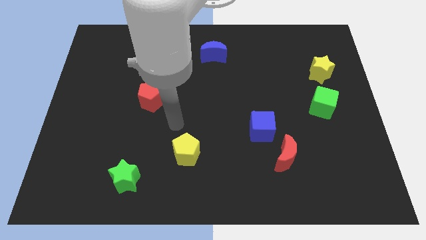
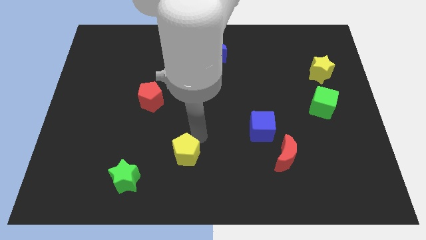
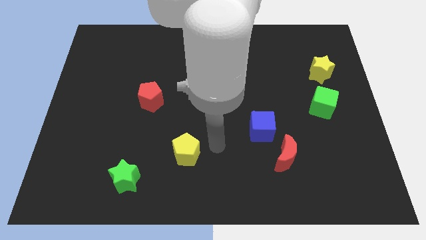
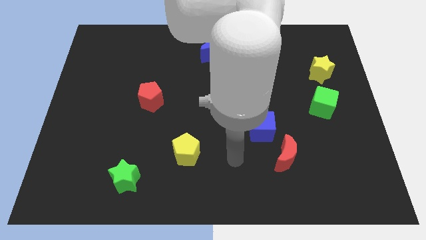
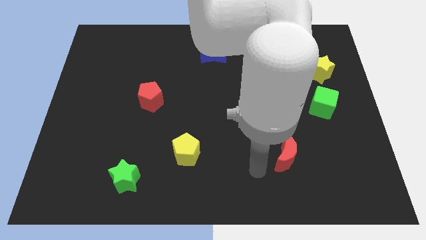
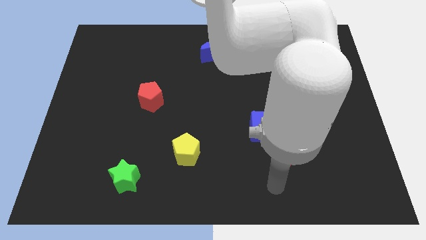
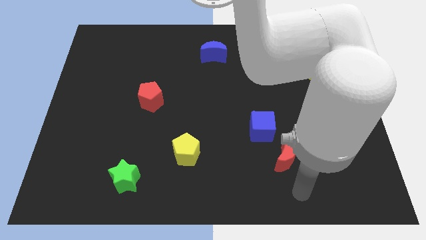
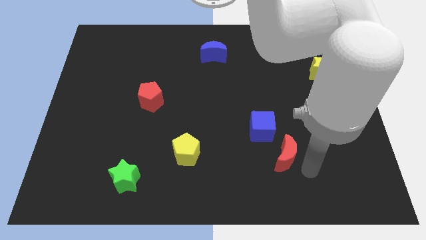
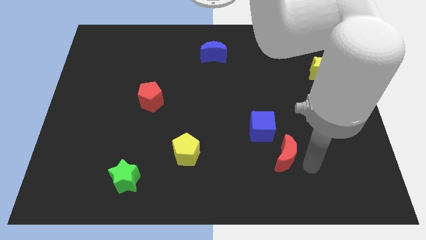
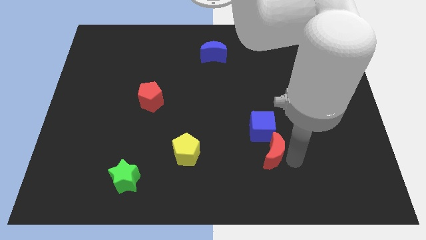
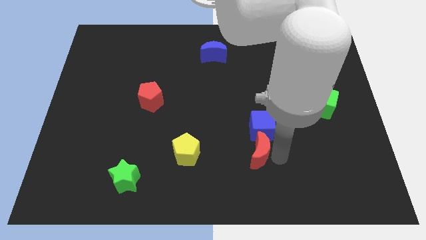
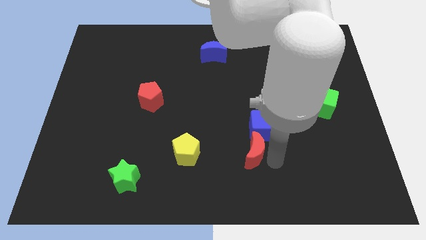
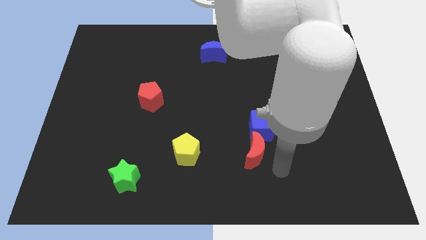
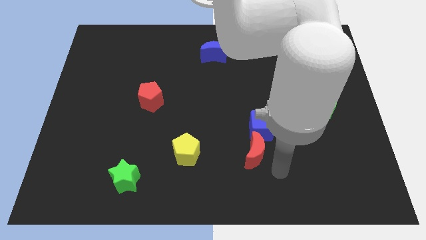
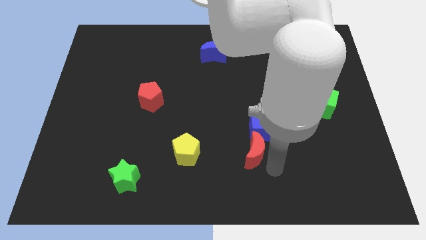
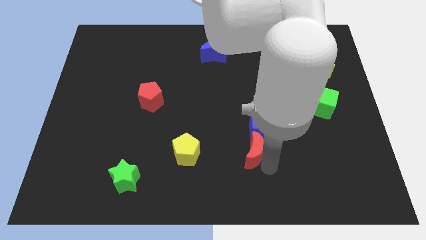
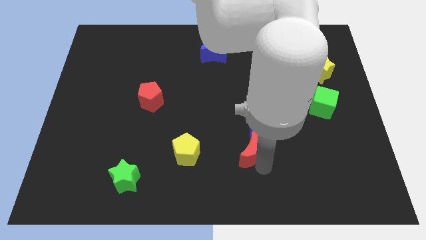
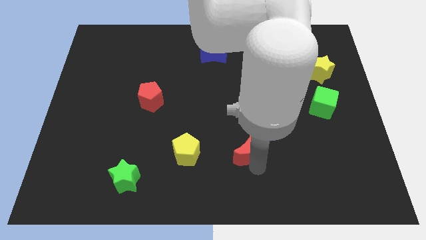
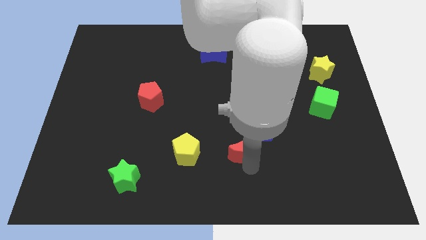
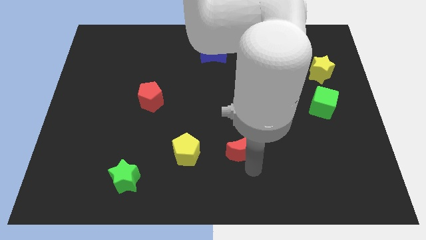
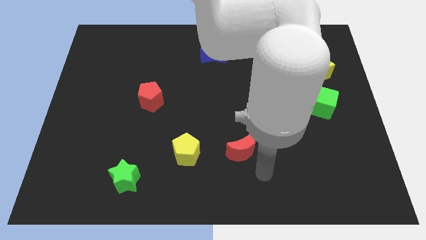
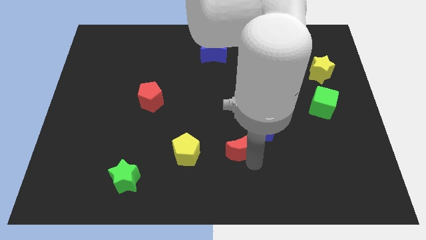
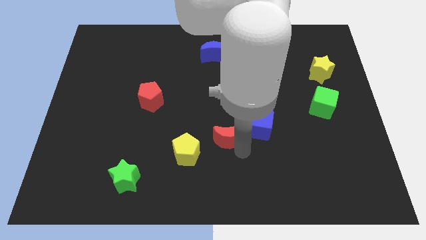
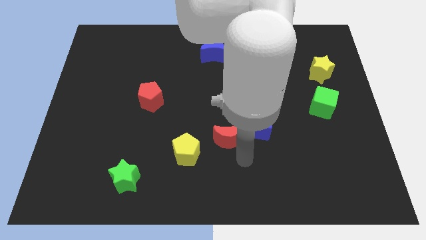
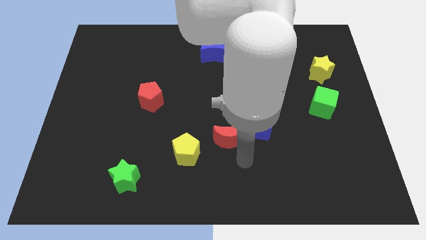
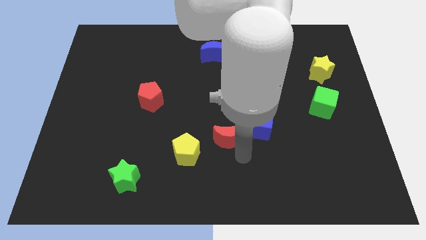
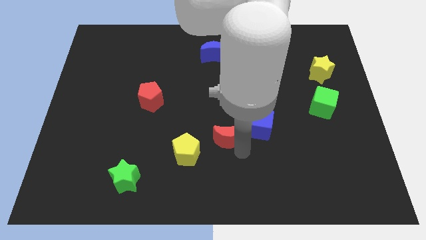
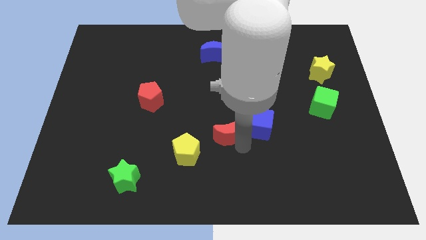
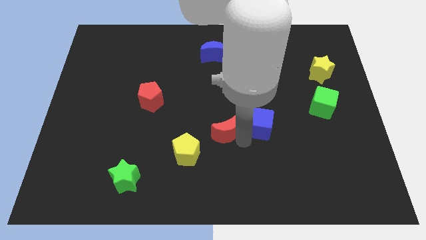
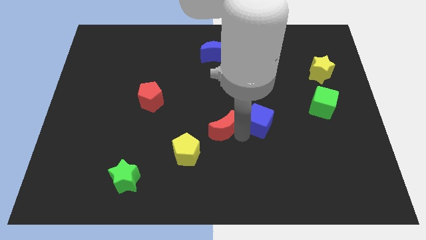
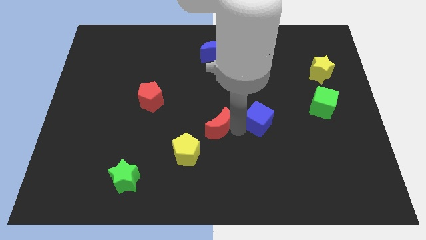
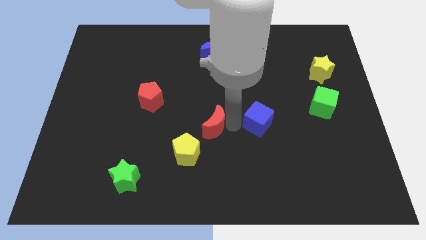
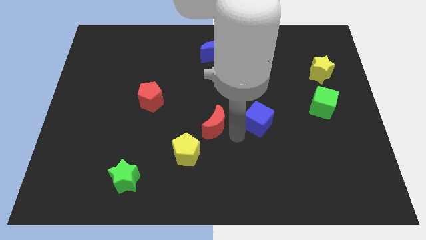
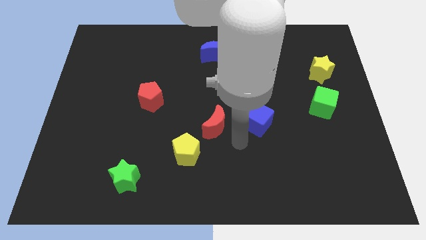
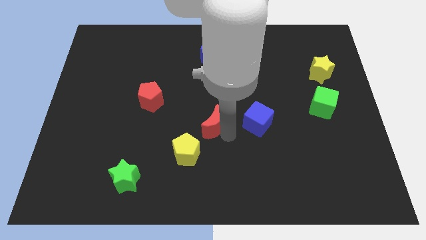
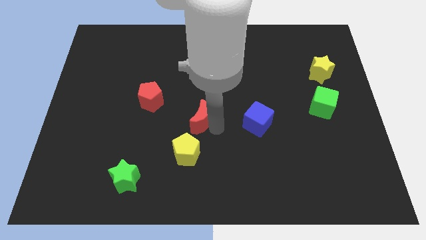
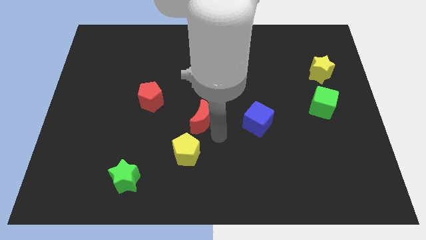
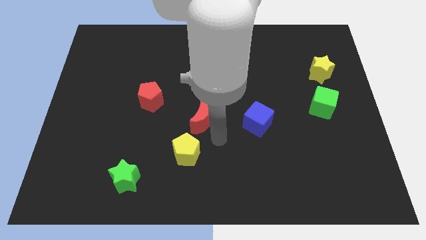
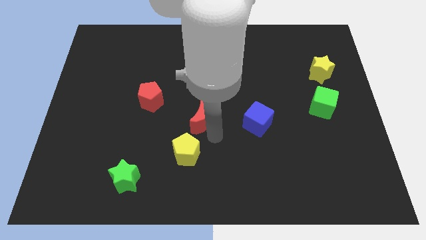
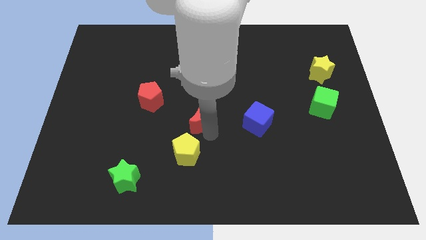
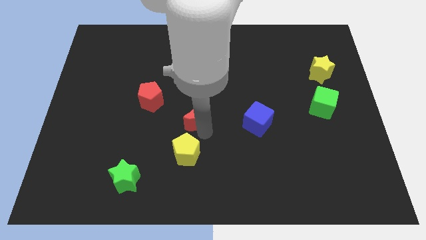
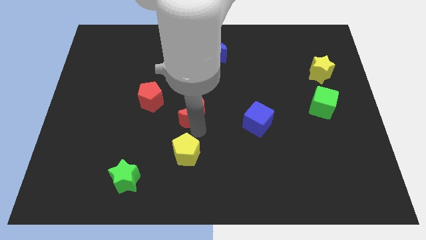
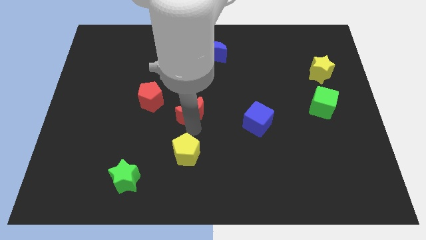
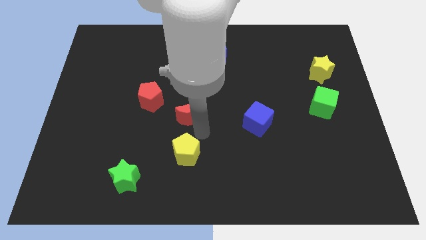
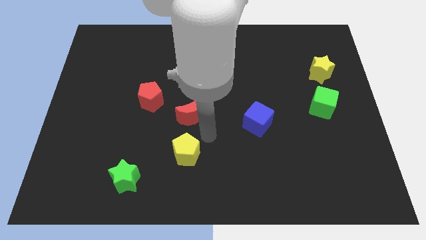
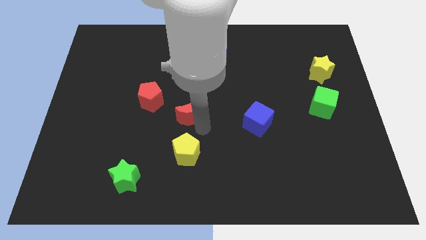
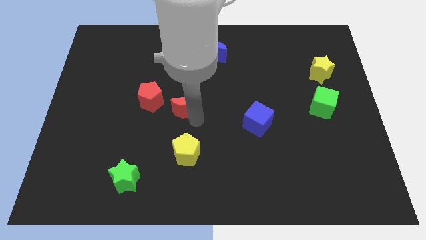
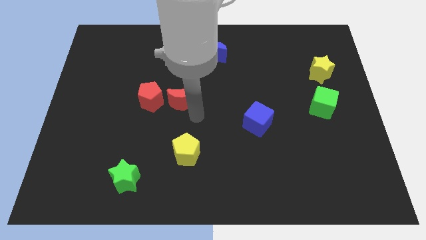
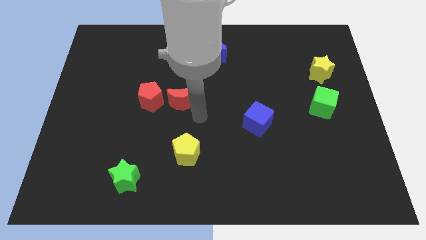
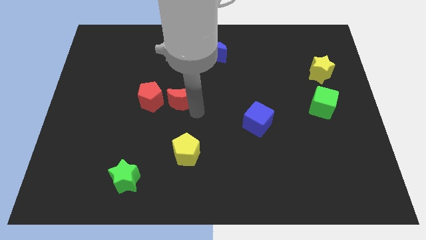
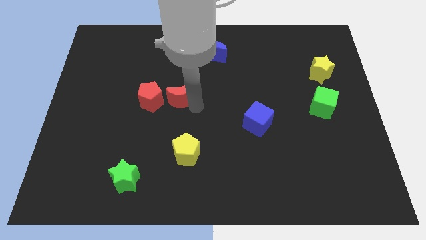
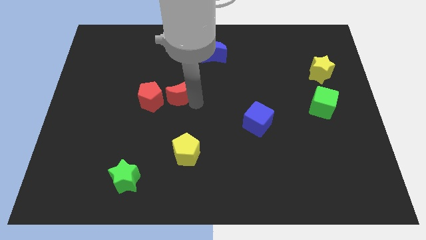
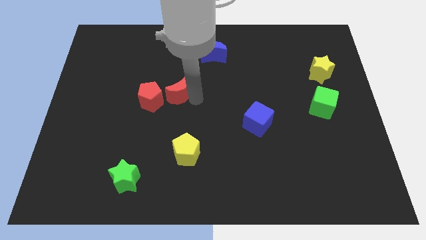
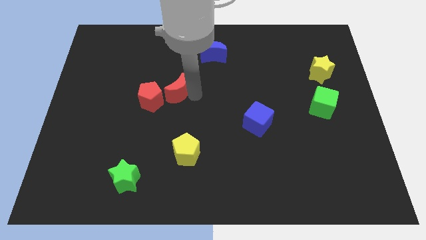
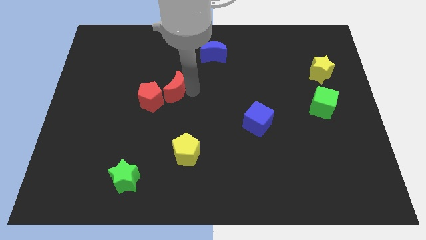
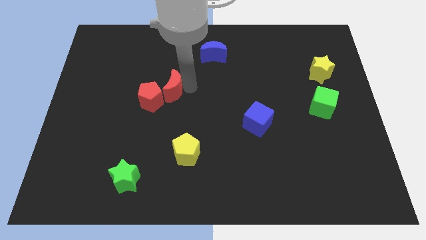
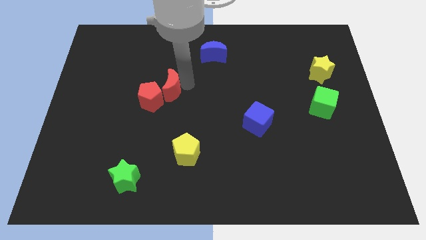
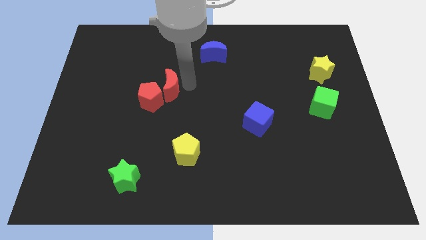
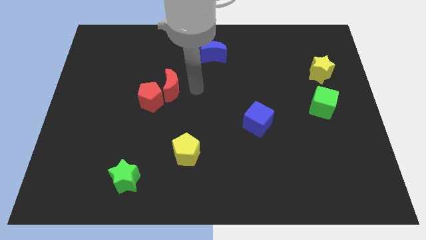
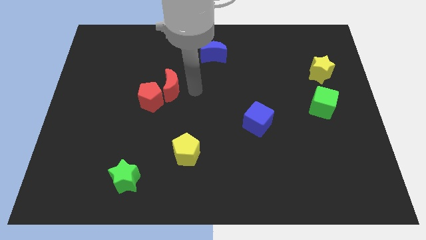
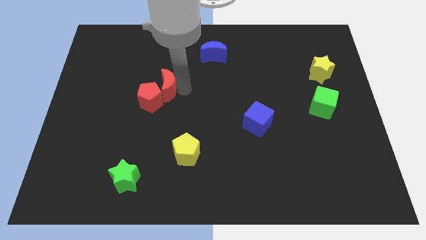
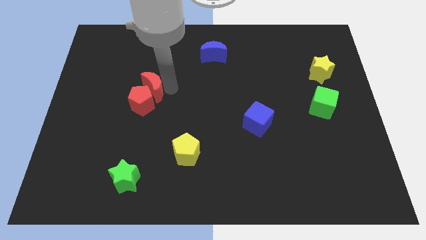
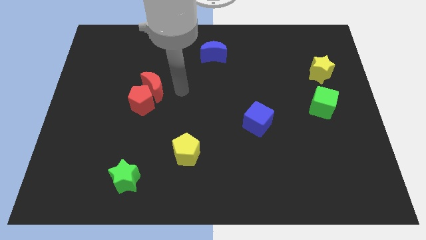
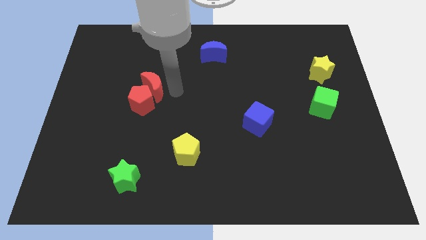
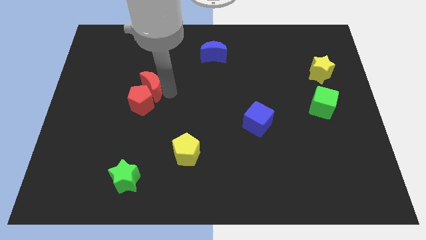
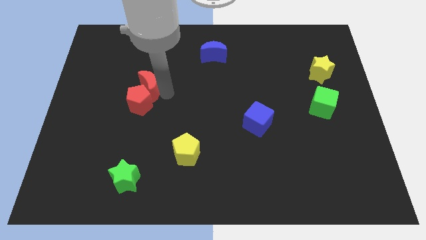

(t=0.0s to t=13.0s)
put the red moon to the top left side of the red pentagon
